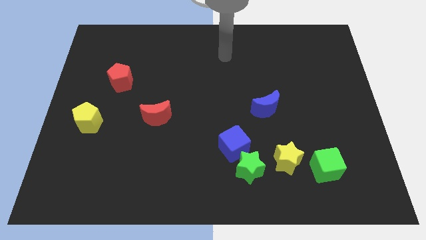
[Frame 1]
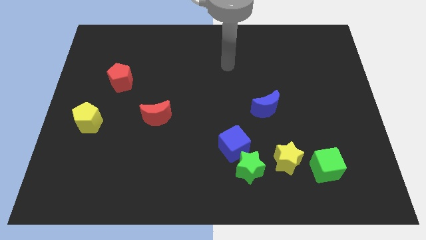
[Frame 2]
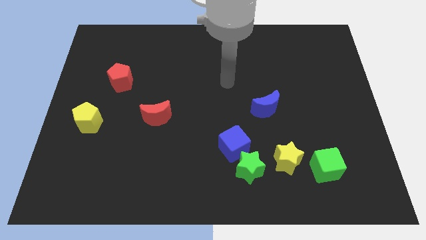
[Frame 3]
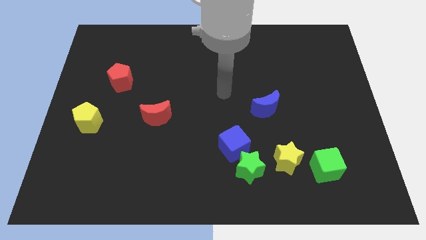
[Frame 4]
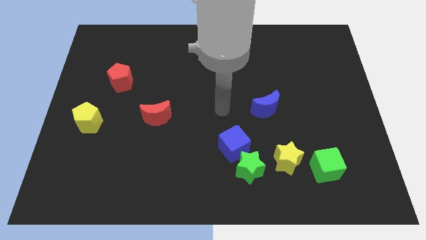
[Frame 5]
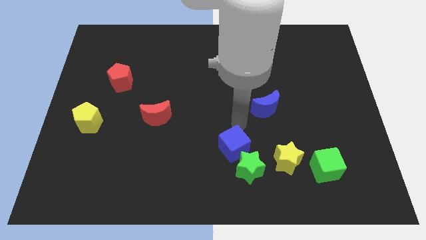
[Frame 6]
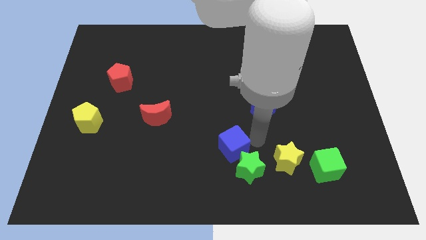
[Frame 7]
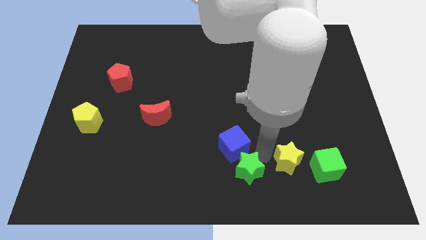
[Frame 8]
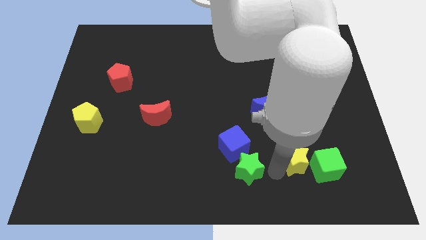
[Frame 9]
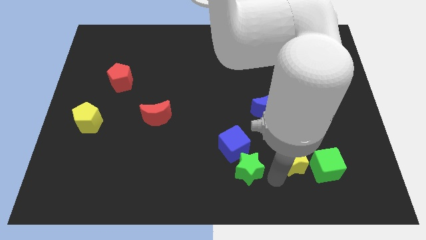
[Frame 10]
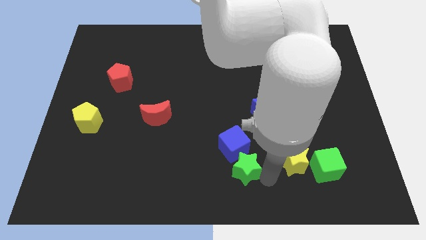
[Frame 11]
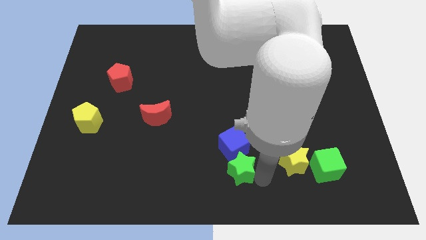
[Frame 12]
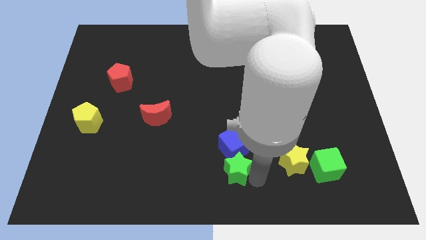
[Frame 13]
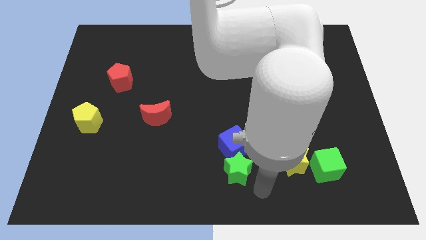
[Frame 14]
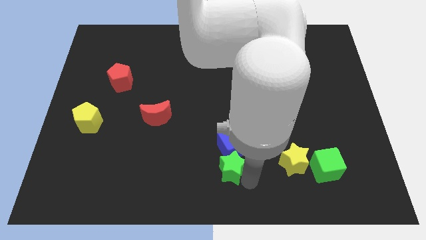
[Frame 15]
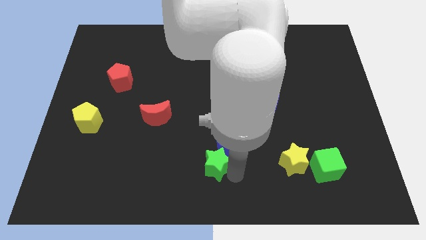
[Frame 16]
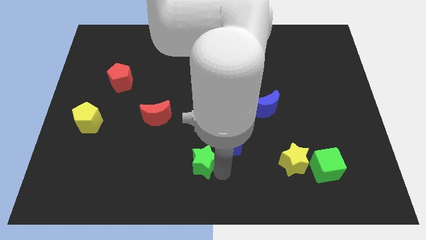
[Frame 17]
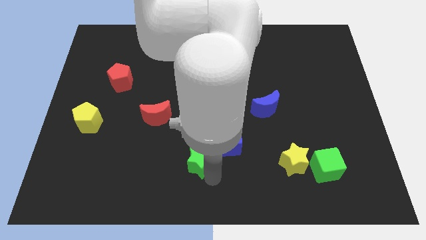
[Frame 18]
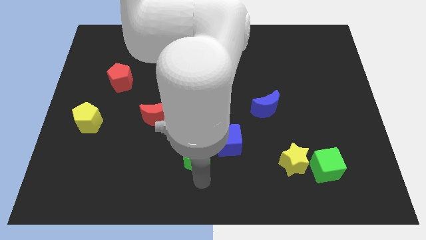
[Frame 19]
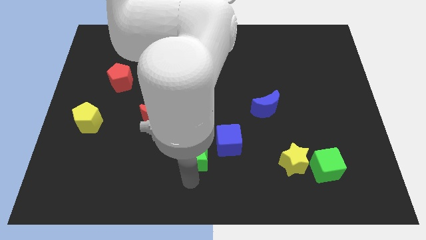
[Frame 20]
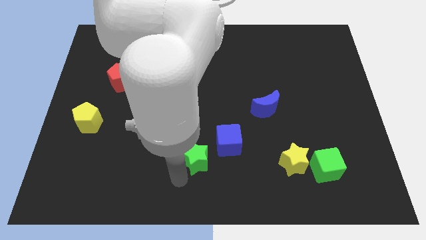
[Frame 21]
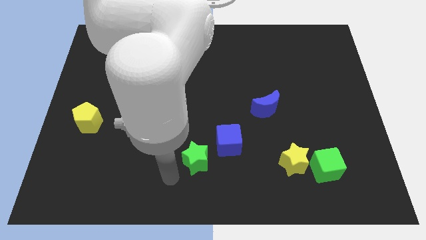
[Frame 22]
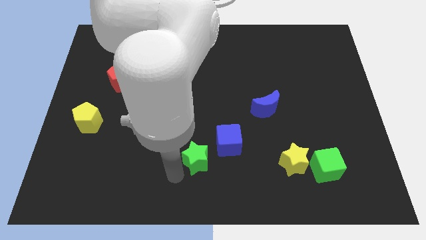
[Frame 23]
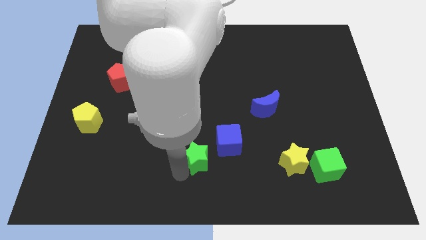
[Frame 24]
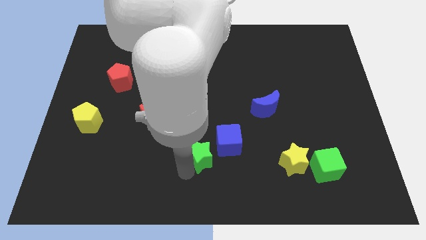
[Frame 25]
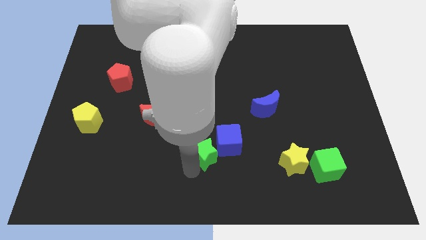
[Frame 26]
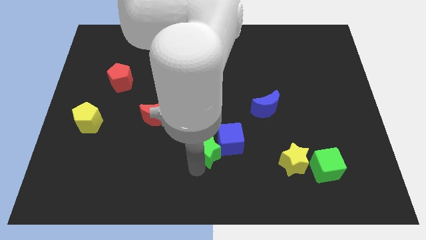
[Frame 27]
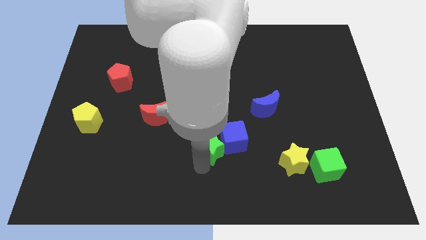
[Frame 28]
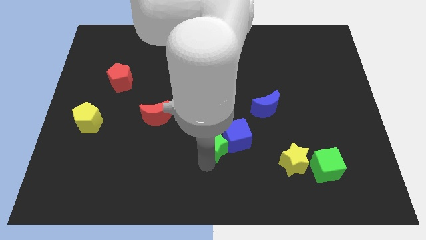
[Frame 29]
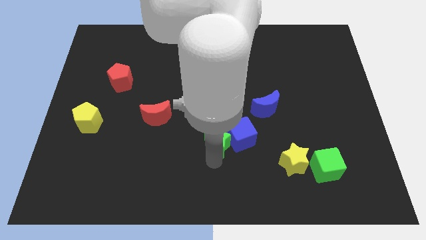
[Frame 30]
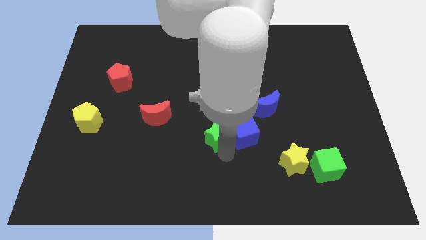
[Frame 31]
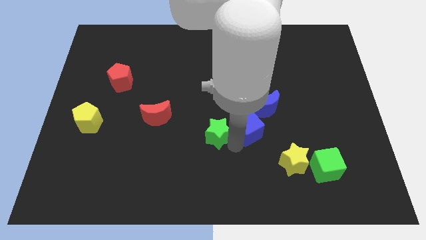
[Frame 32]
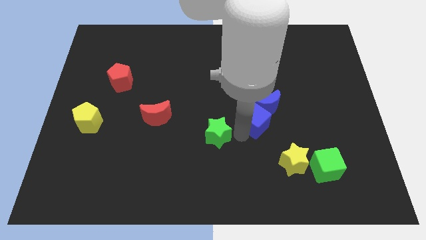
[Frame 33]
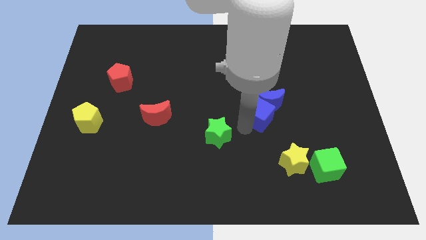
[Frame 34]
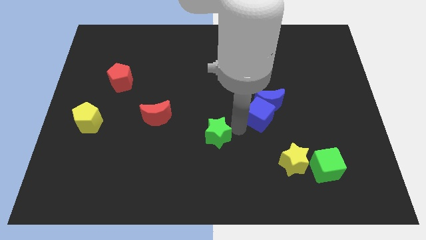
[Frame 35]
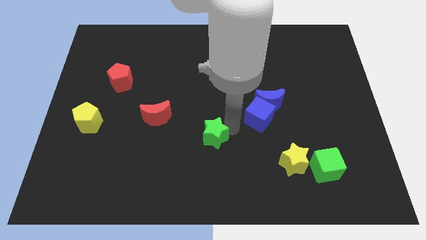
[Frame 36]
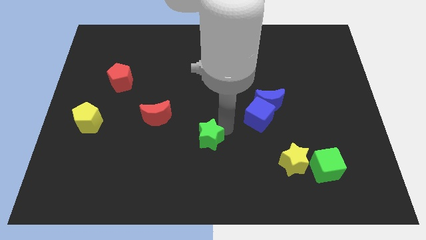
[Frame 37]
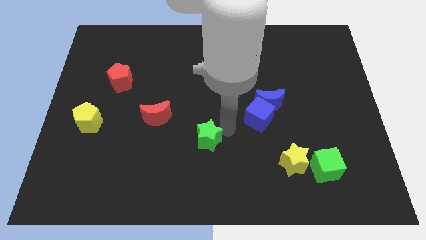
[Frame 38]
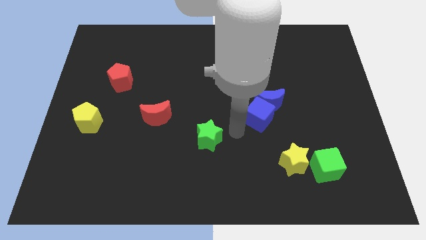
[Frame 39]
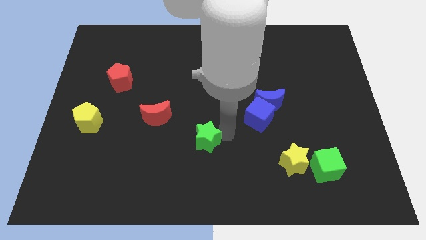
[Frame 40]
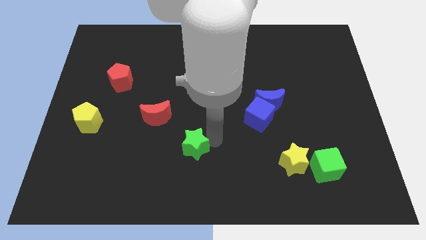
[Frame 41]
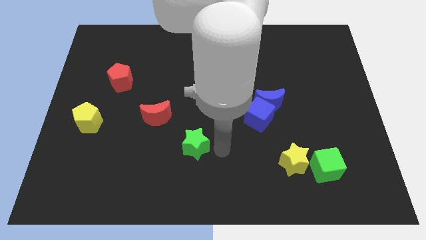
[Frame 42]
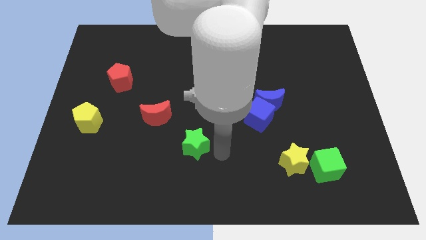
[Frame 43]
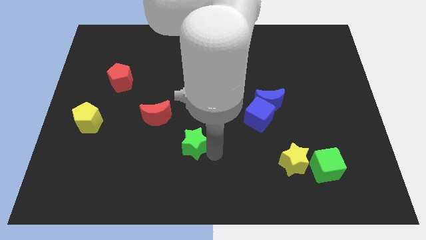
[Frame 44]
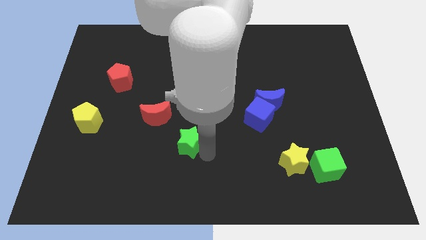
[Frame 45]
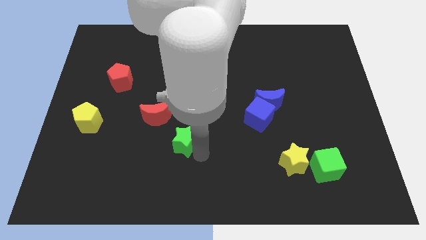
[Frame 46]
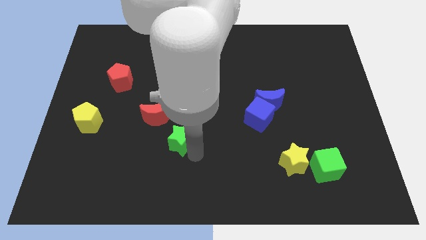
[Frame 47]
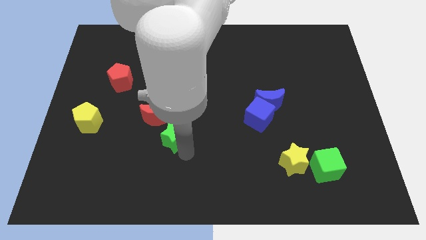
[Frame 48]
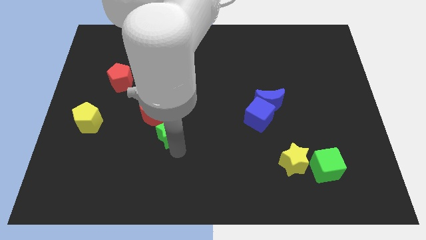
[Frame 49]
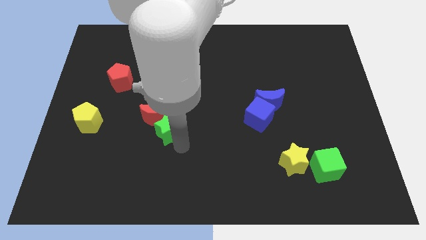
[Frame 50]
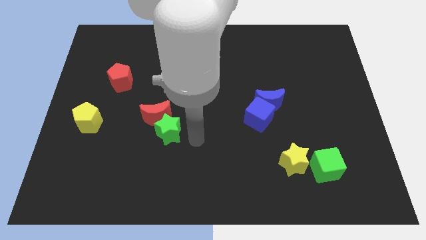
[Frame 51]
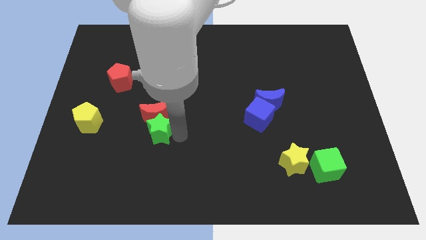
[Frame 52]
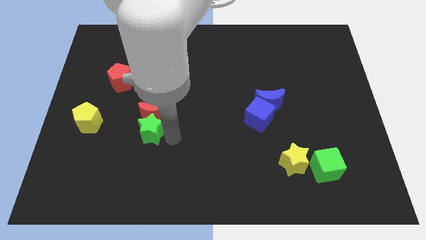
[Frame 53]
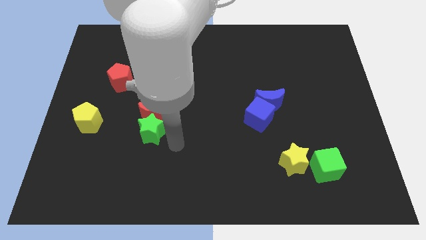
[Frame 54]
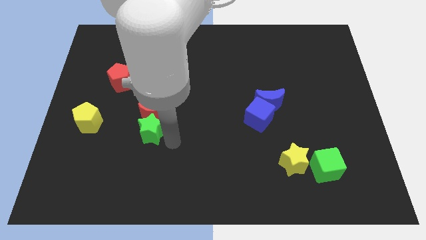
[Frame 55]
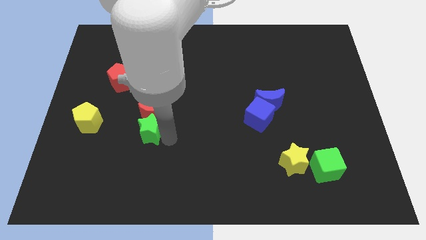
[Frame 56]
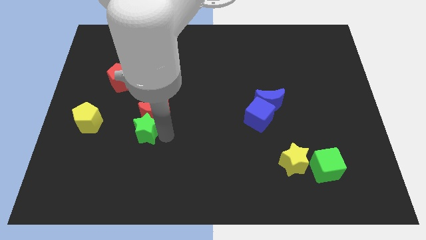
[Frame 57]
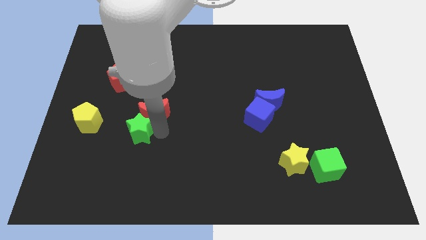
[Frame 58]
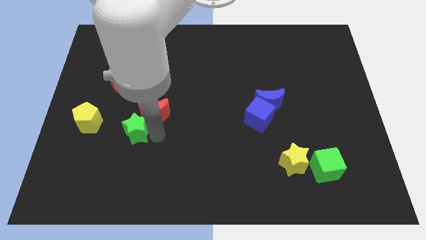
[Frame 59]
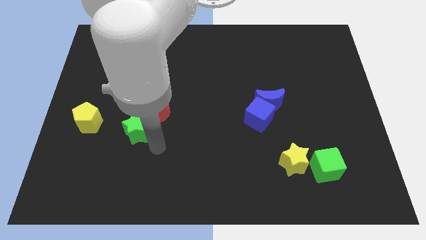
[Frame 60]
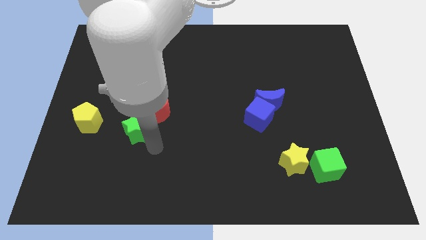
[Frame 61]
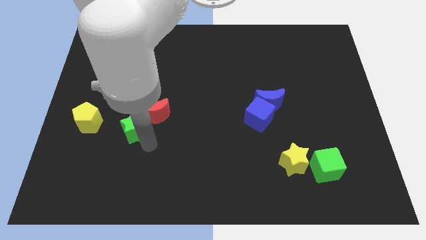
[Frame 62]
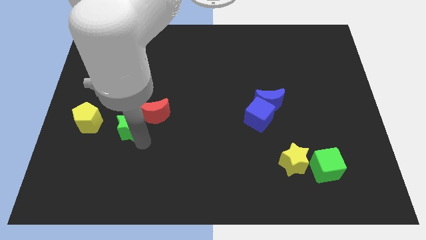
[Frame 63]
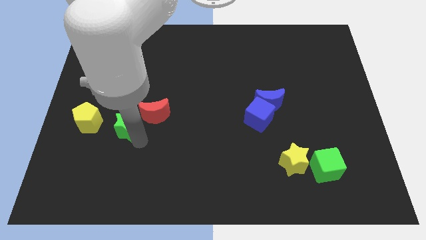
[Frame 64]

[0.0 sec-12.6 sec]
put the green star below the red pentagon

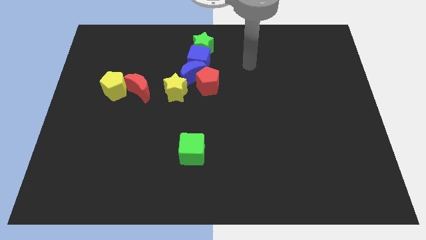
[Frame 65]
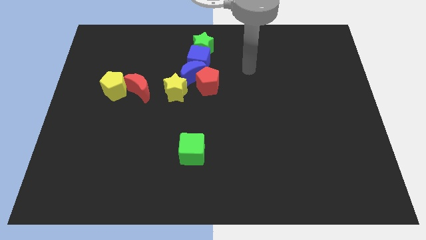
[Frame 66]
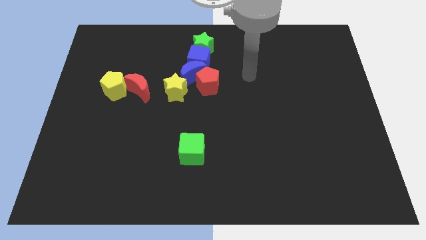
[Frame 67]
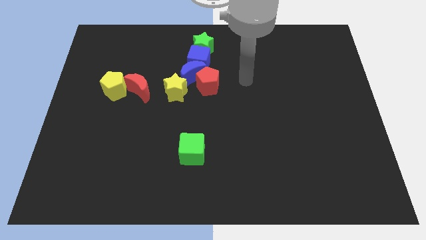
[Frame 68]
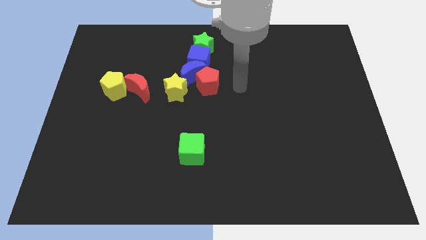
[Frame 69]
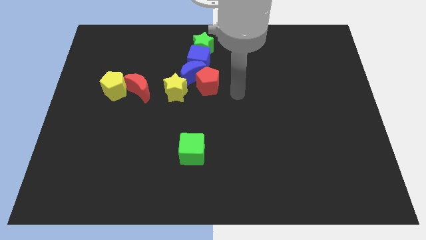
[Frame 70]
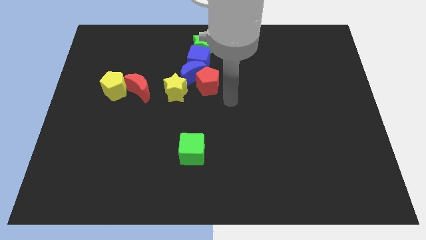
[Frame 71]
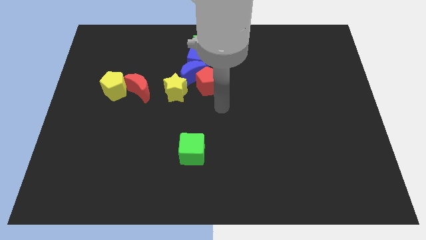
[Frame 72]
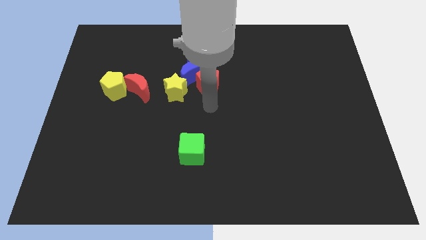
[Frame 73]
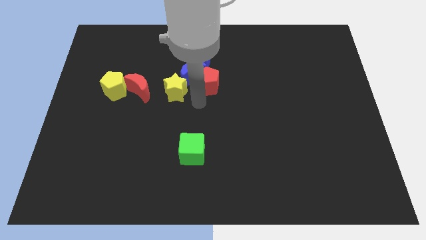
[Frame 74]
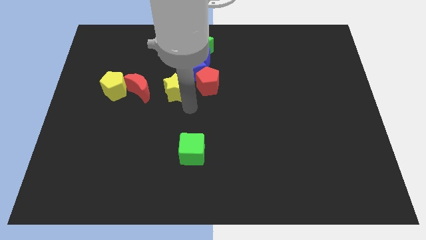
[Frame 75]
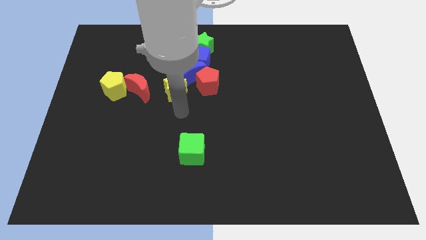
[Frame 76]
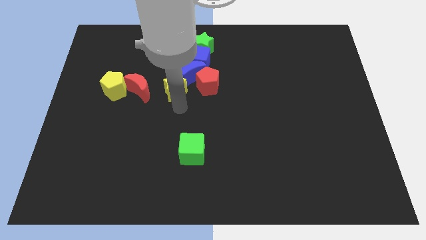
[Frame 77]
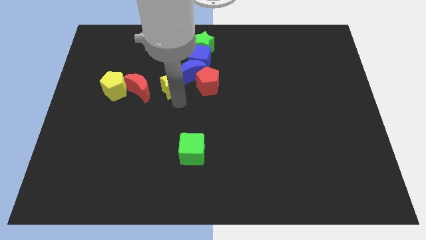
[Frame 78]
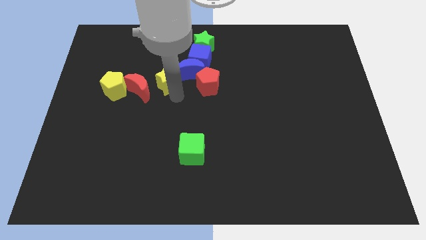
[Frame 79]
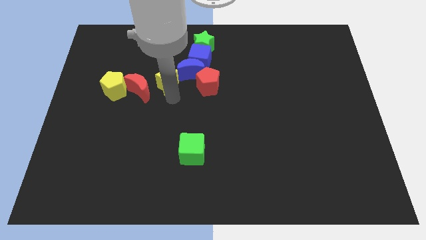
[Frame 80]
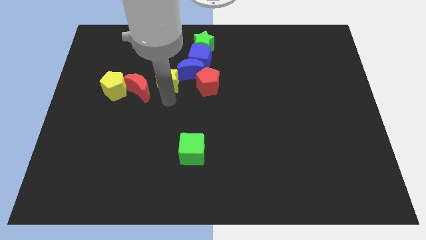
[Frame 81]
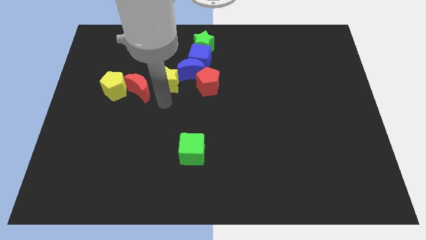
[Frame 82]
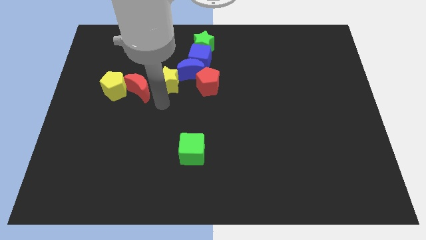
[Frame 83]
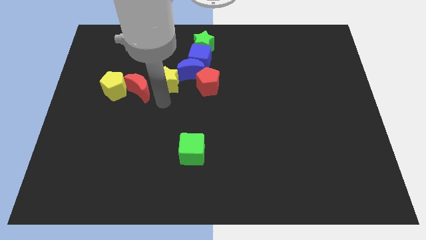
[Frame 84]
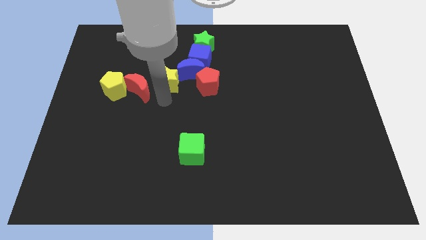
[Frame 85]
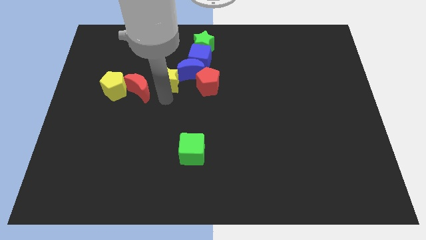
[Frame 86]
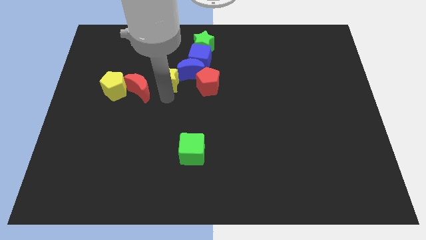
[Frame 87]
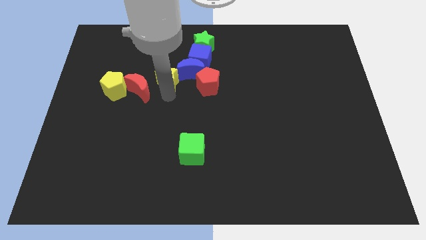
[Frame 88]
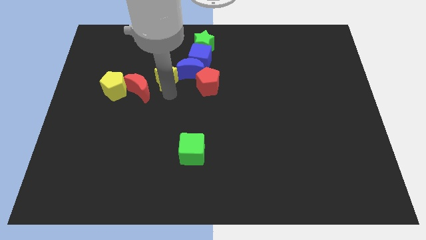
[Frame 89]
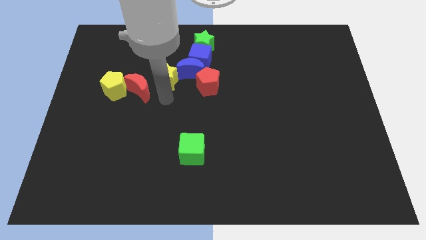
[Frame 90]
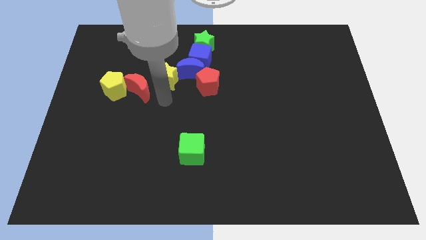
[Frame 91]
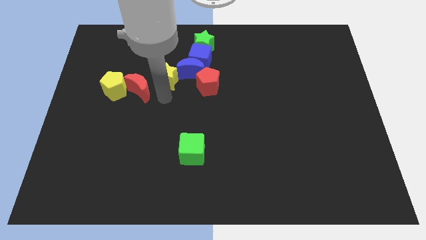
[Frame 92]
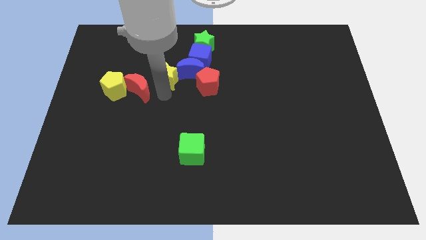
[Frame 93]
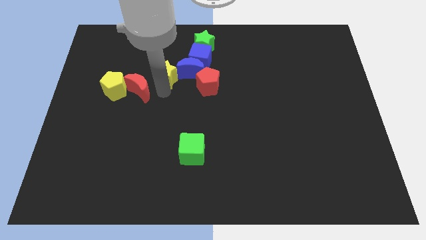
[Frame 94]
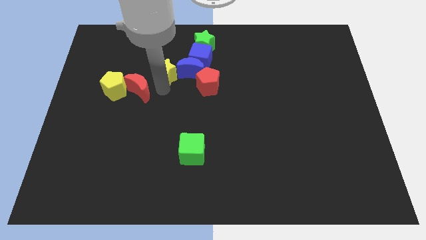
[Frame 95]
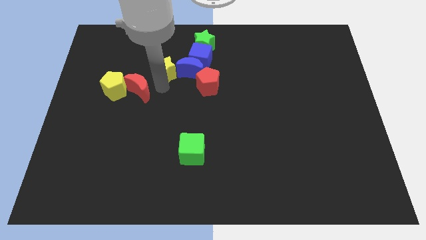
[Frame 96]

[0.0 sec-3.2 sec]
move the yellow star to the top left side of the blue moon
